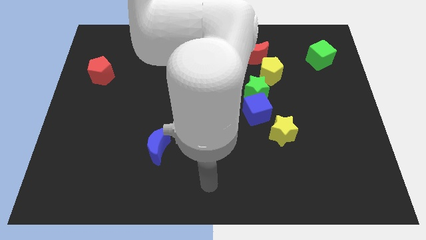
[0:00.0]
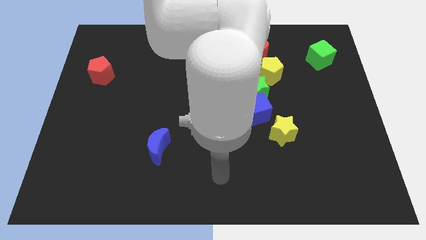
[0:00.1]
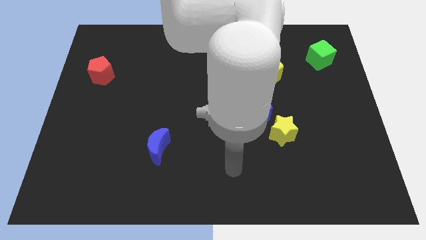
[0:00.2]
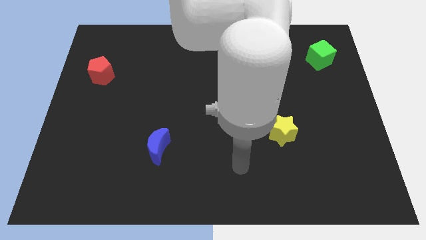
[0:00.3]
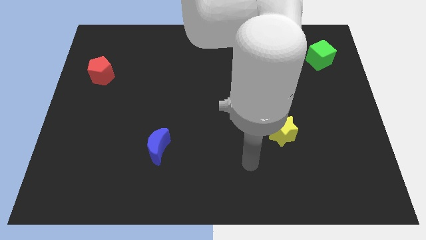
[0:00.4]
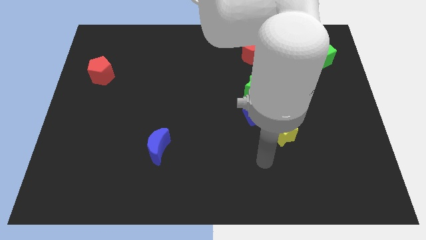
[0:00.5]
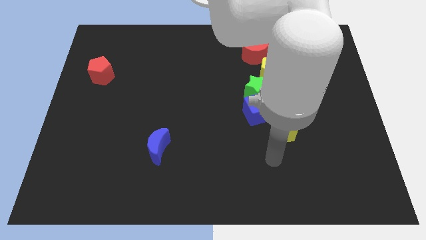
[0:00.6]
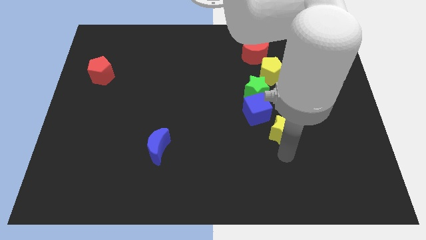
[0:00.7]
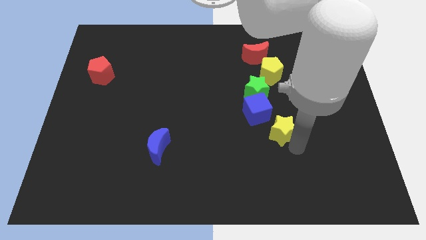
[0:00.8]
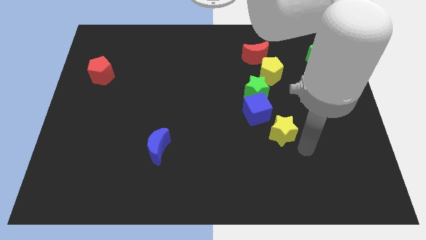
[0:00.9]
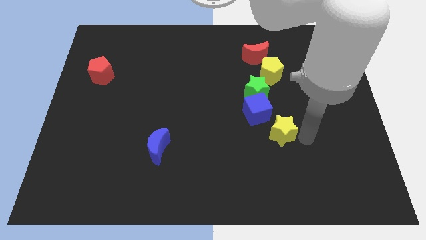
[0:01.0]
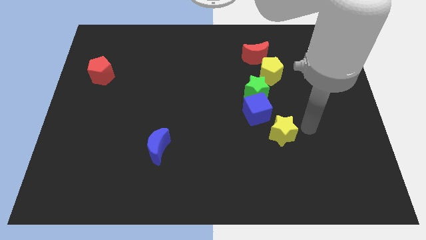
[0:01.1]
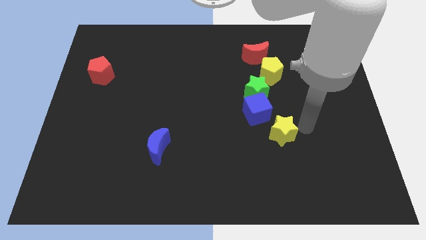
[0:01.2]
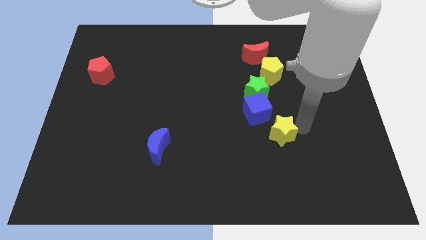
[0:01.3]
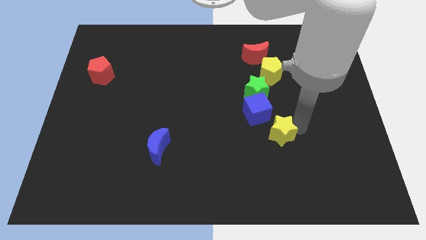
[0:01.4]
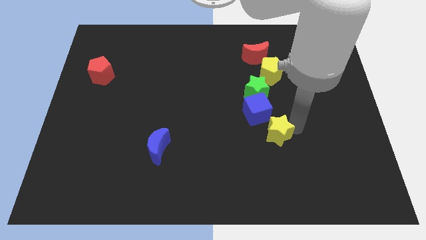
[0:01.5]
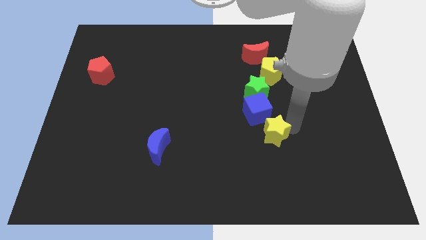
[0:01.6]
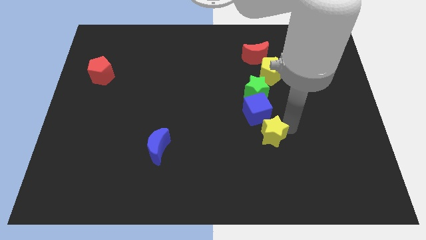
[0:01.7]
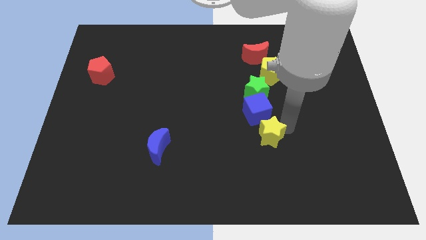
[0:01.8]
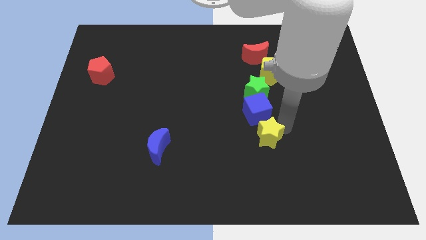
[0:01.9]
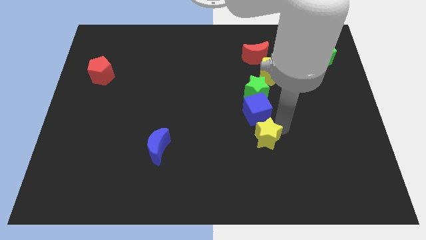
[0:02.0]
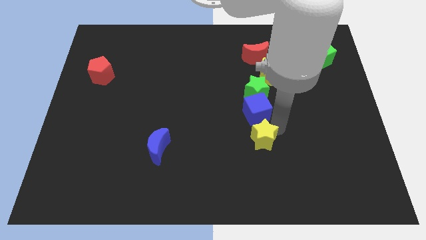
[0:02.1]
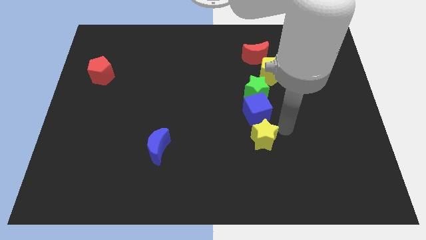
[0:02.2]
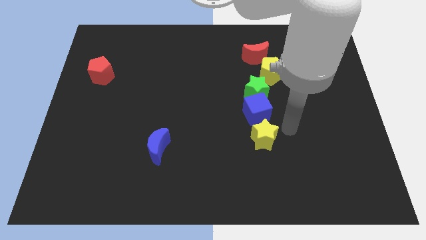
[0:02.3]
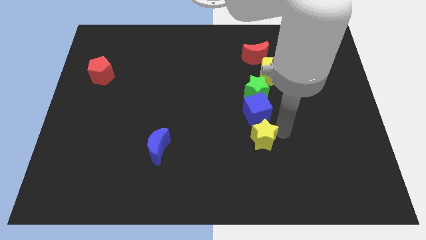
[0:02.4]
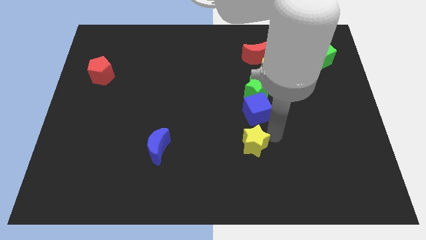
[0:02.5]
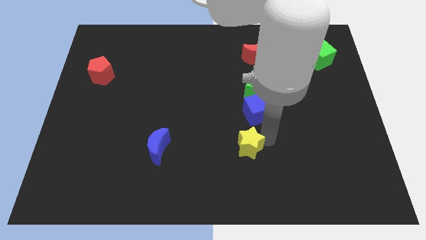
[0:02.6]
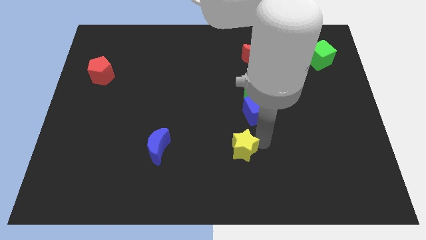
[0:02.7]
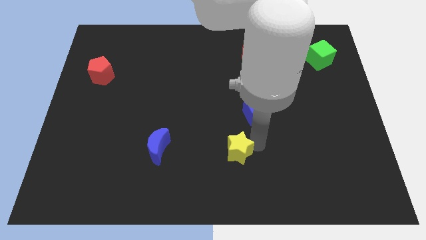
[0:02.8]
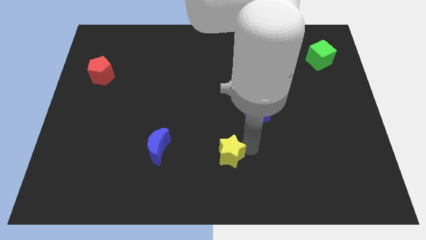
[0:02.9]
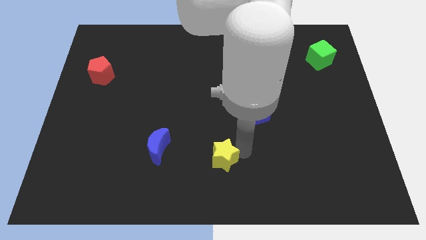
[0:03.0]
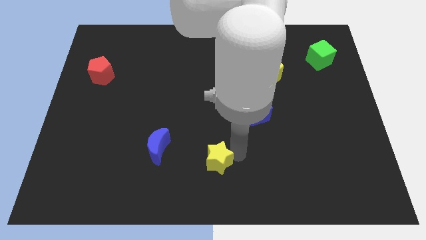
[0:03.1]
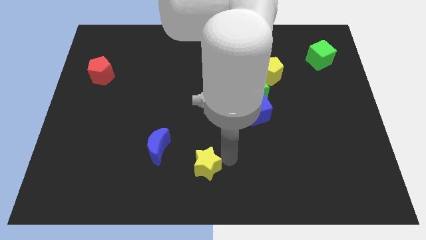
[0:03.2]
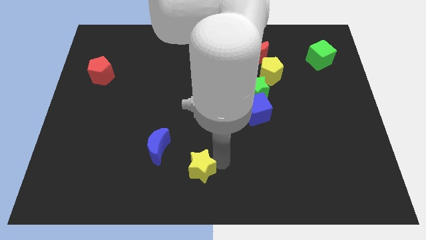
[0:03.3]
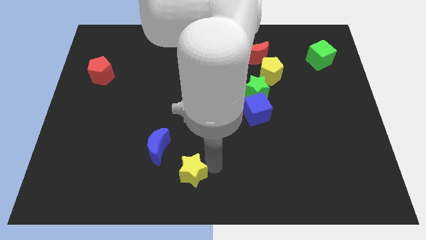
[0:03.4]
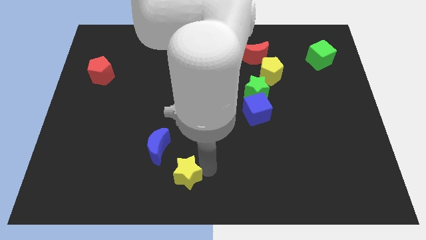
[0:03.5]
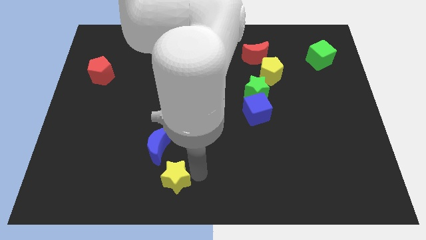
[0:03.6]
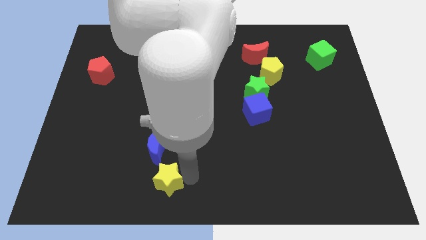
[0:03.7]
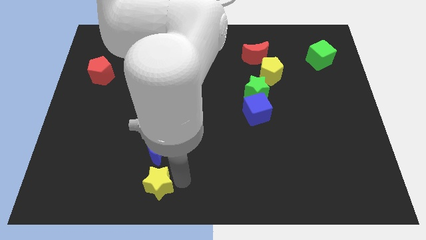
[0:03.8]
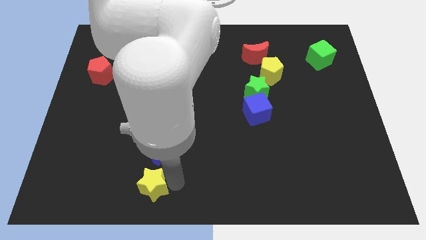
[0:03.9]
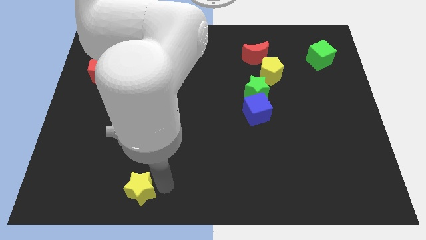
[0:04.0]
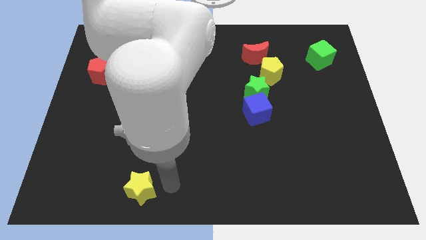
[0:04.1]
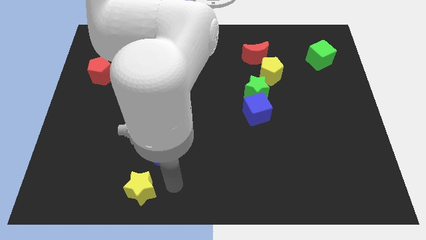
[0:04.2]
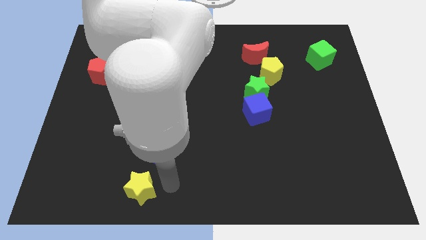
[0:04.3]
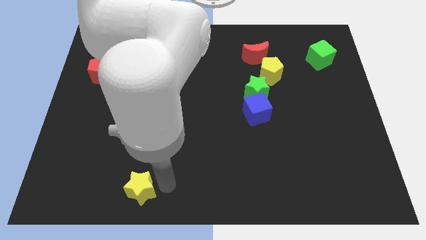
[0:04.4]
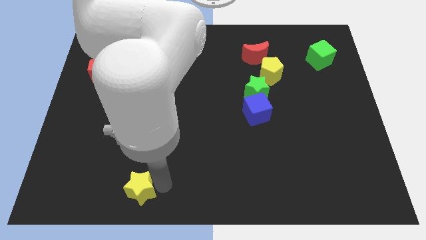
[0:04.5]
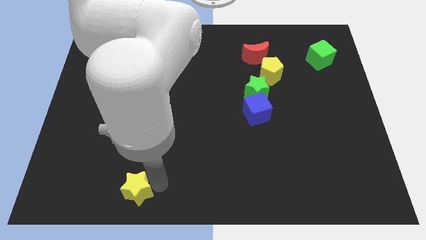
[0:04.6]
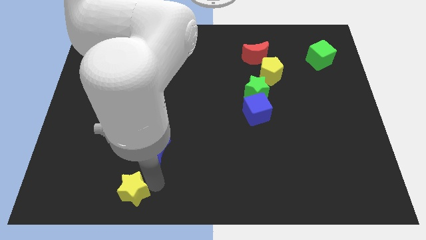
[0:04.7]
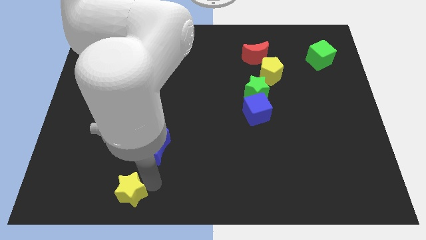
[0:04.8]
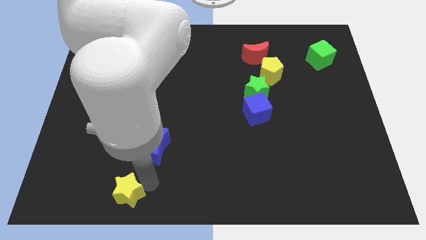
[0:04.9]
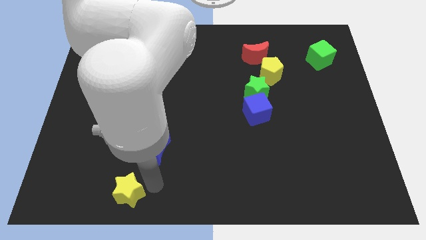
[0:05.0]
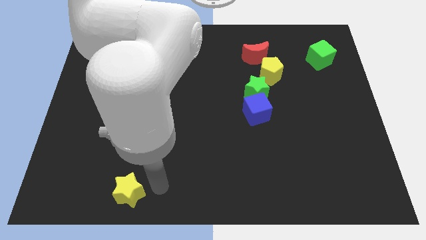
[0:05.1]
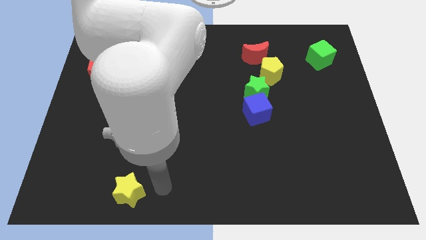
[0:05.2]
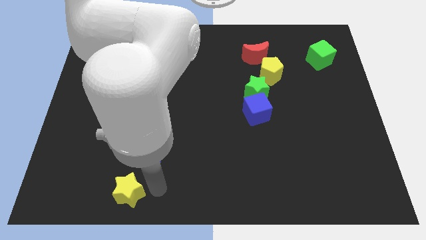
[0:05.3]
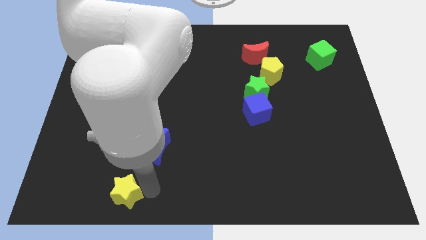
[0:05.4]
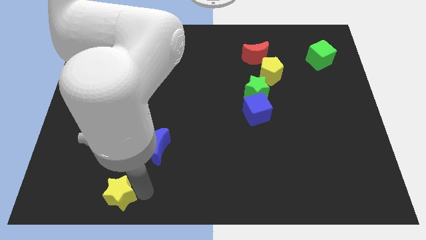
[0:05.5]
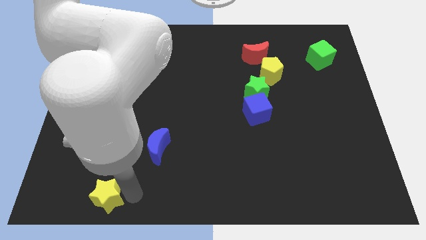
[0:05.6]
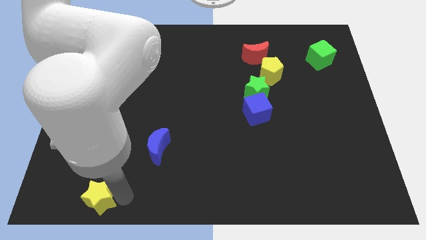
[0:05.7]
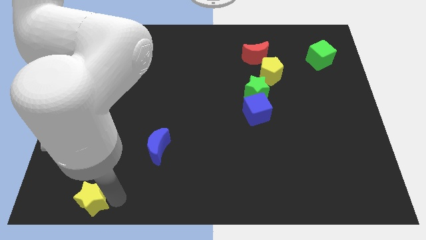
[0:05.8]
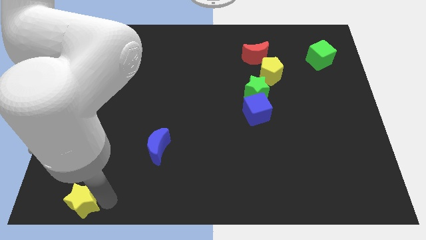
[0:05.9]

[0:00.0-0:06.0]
move the yellow star to the bottom left of the board
